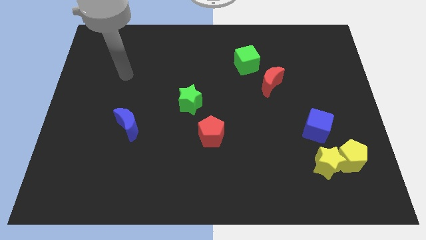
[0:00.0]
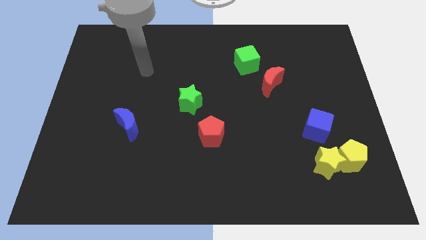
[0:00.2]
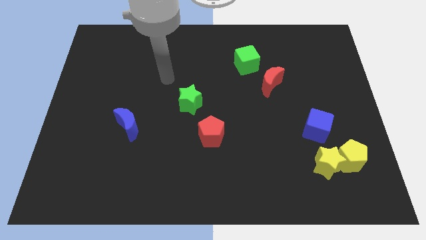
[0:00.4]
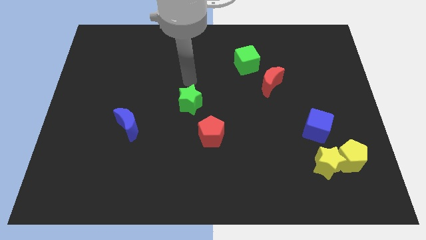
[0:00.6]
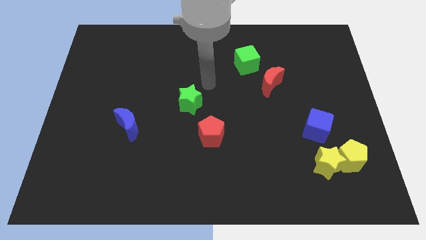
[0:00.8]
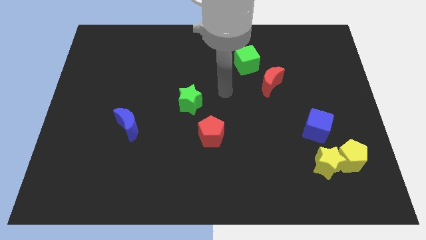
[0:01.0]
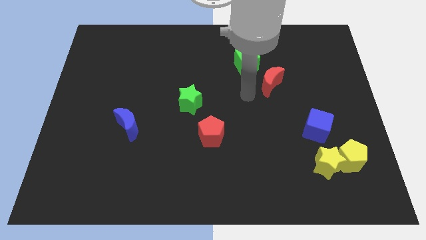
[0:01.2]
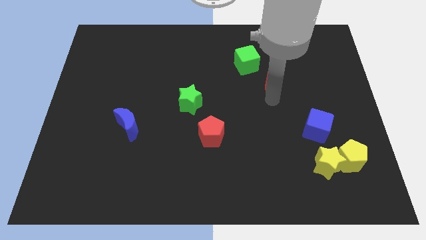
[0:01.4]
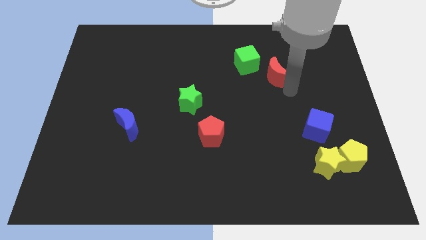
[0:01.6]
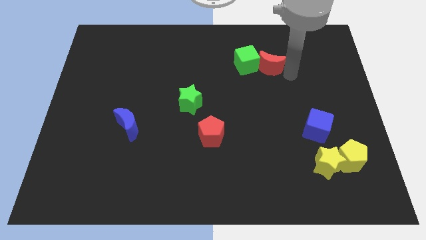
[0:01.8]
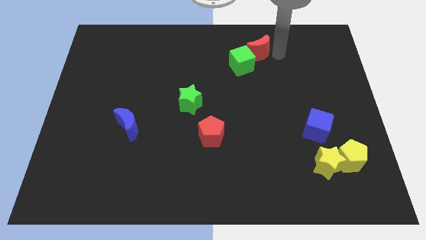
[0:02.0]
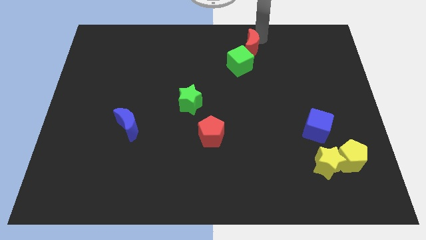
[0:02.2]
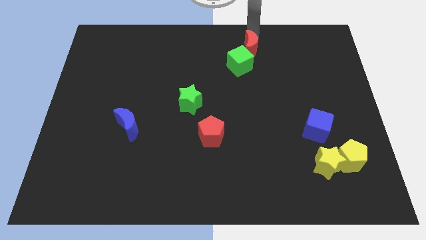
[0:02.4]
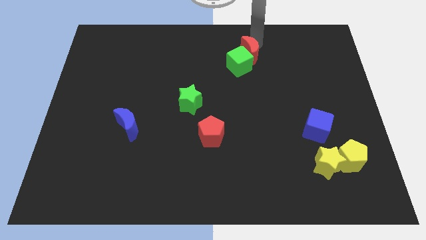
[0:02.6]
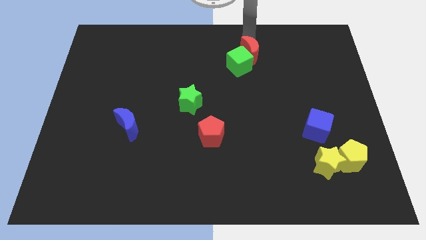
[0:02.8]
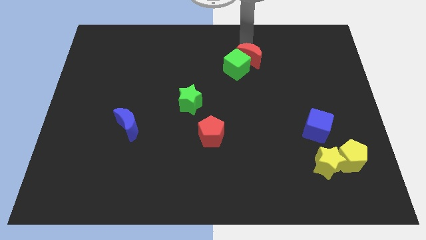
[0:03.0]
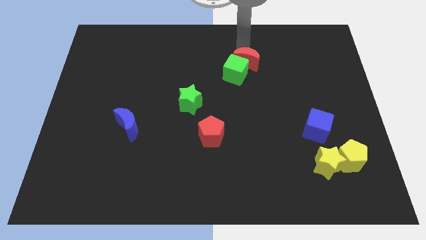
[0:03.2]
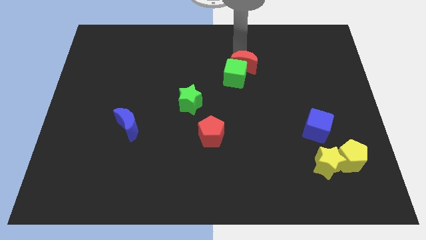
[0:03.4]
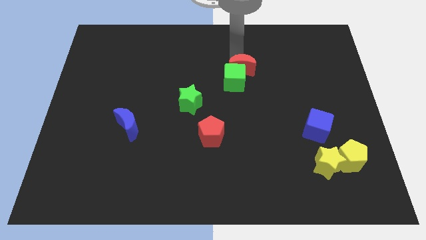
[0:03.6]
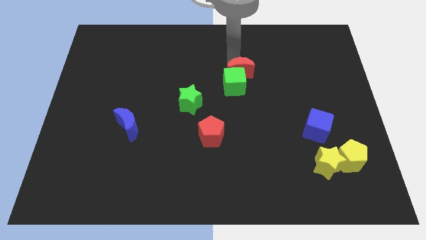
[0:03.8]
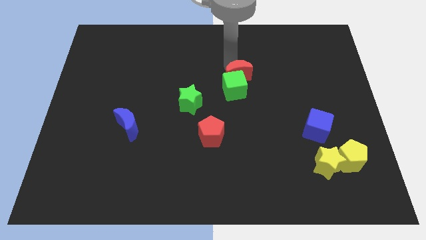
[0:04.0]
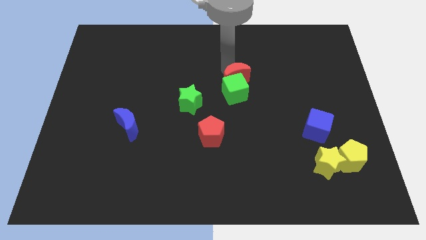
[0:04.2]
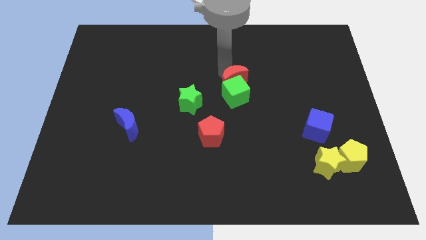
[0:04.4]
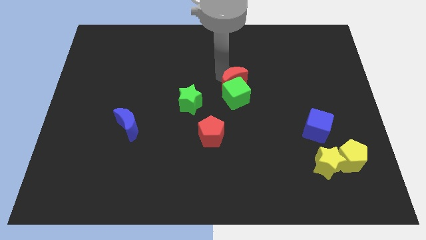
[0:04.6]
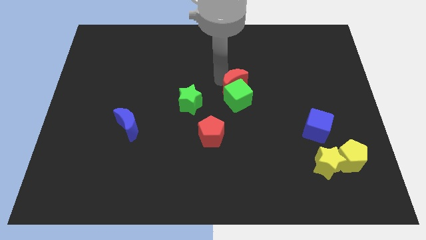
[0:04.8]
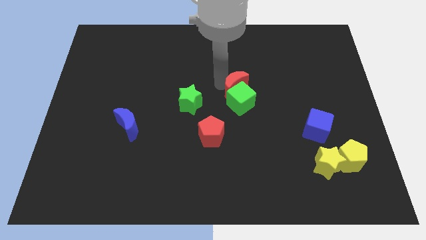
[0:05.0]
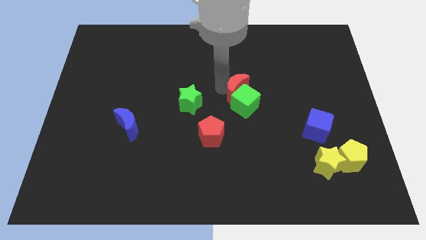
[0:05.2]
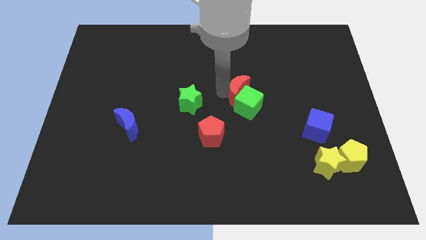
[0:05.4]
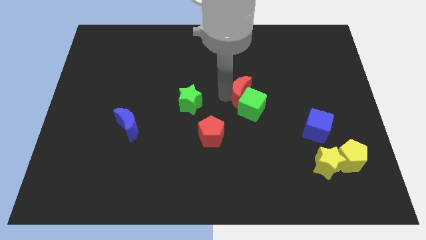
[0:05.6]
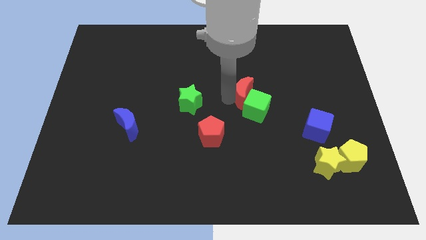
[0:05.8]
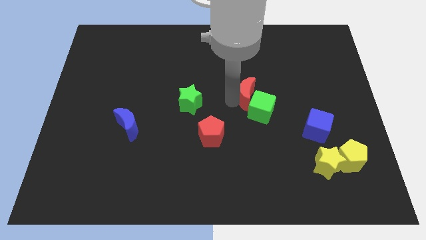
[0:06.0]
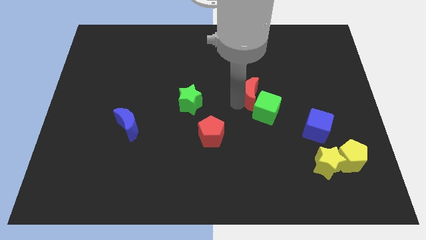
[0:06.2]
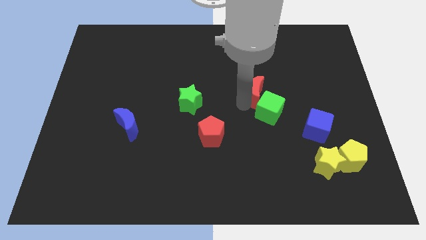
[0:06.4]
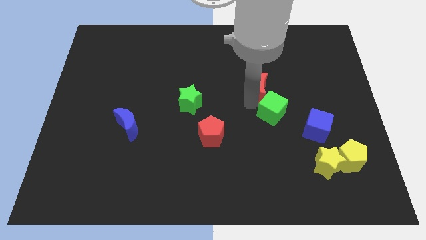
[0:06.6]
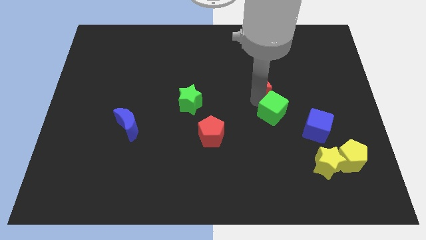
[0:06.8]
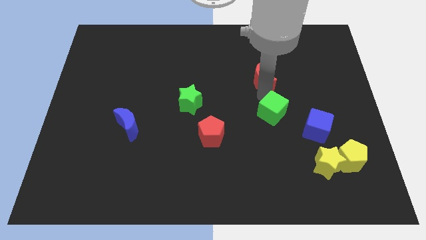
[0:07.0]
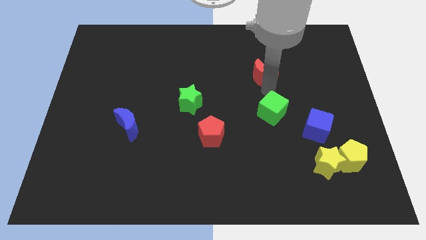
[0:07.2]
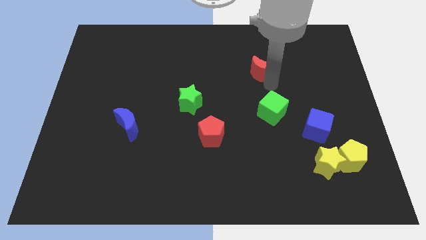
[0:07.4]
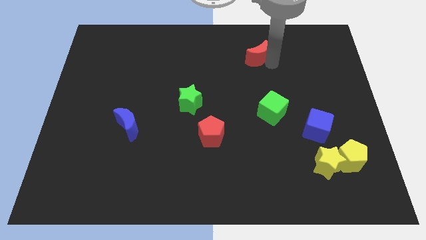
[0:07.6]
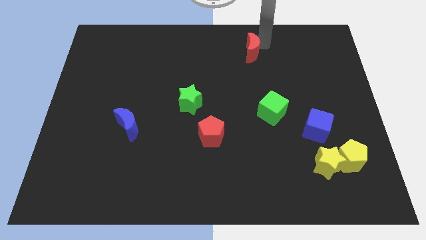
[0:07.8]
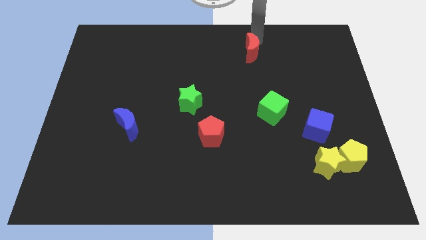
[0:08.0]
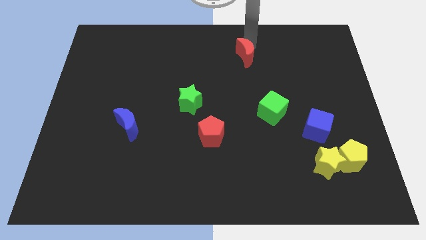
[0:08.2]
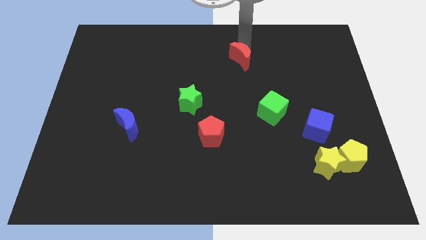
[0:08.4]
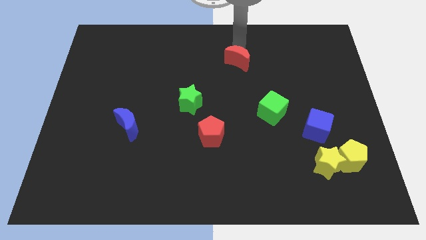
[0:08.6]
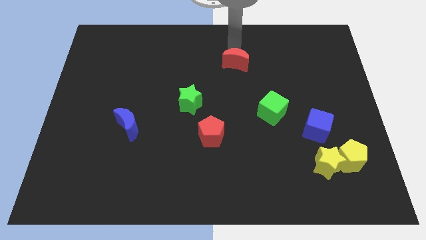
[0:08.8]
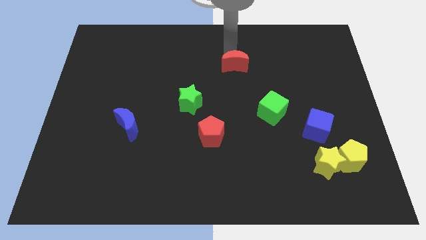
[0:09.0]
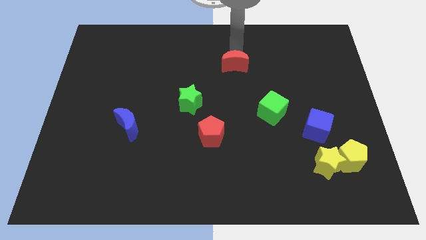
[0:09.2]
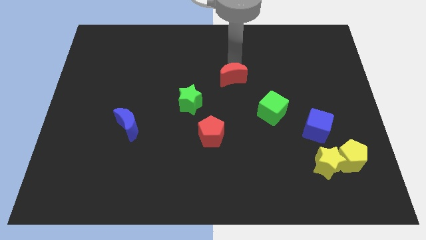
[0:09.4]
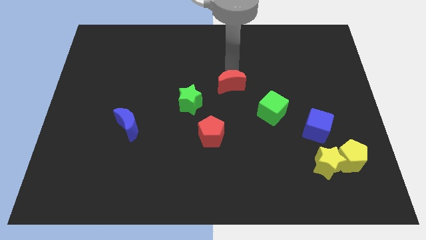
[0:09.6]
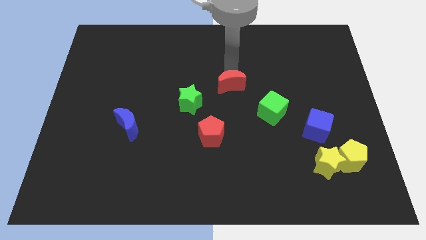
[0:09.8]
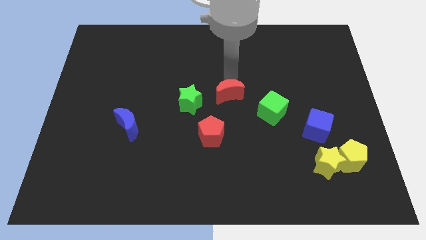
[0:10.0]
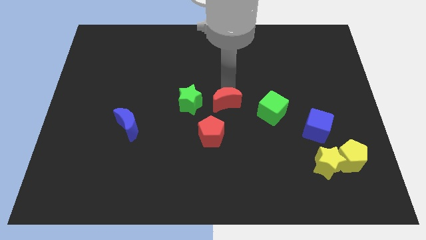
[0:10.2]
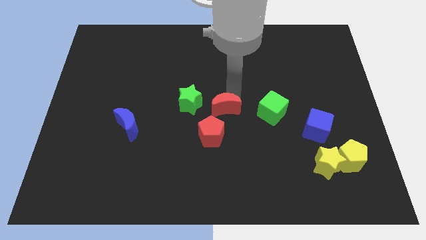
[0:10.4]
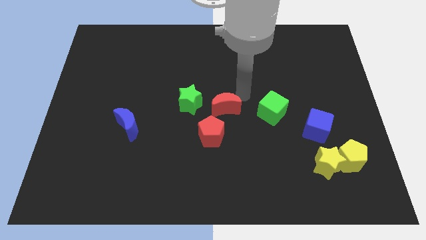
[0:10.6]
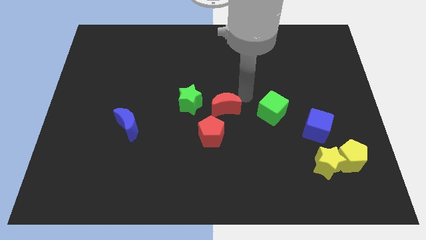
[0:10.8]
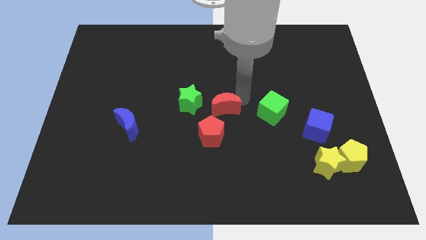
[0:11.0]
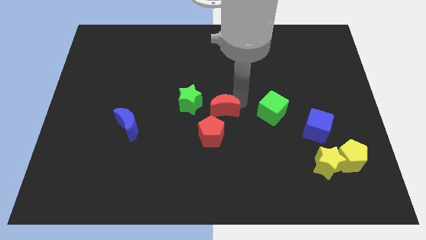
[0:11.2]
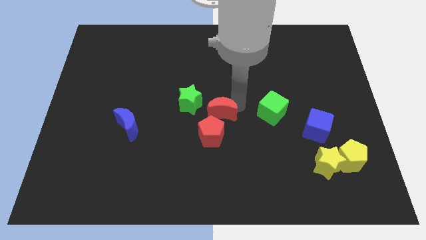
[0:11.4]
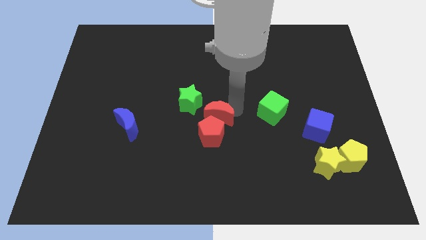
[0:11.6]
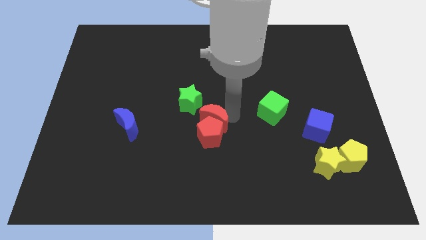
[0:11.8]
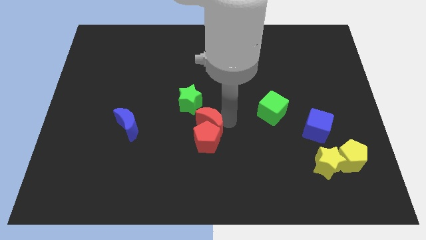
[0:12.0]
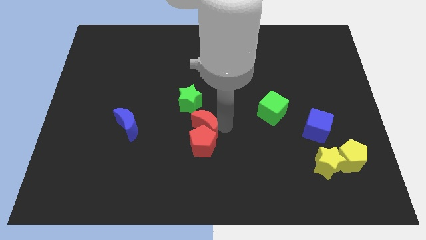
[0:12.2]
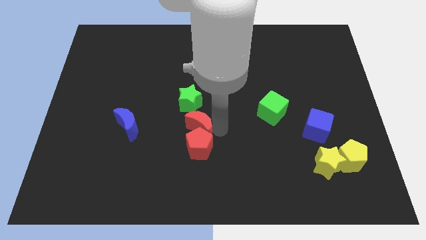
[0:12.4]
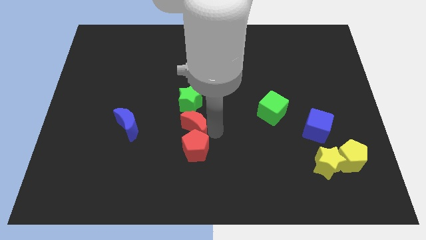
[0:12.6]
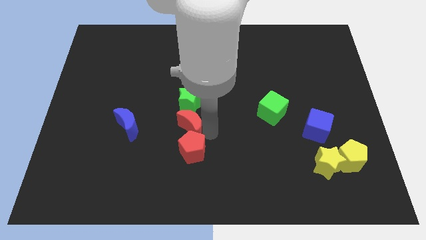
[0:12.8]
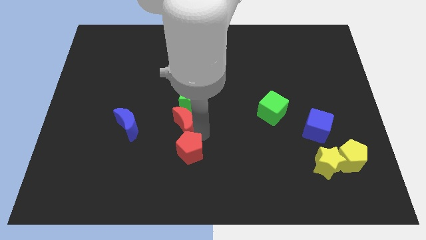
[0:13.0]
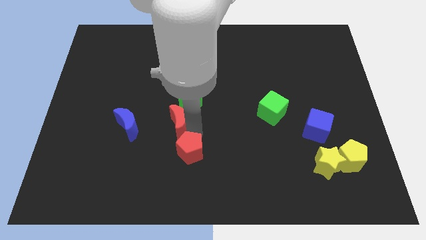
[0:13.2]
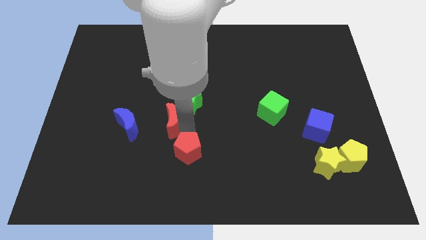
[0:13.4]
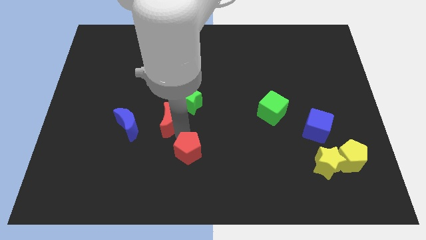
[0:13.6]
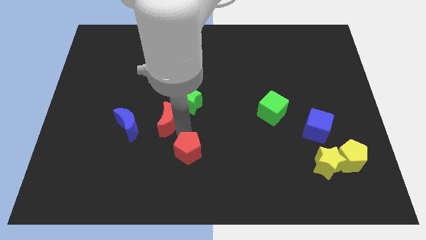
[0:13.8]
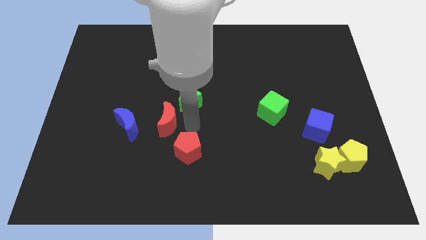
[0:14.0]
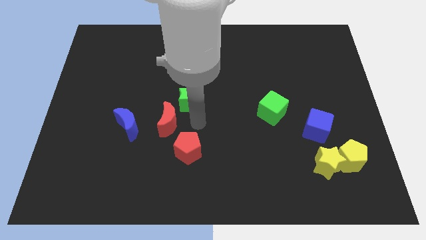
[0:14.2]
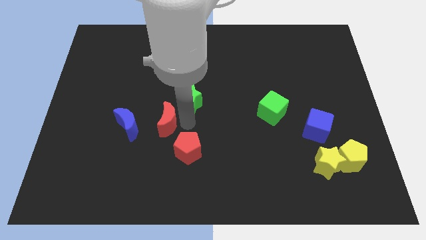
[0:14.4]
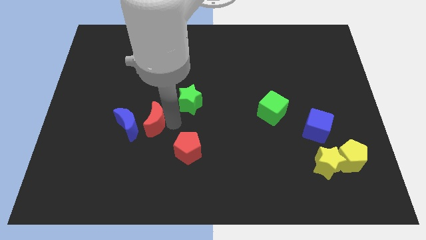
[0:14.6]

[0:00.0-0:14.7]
push the red moon towards the blue moon

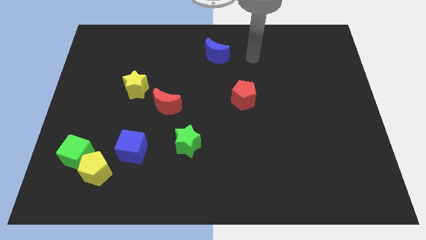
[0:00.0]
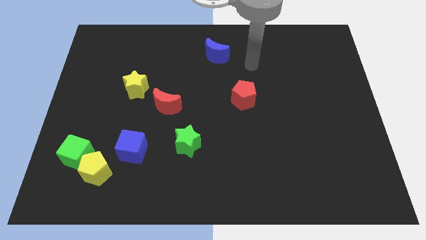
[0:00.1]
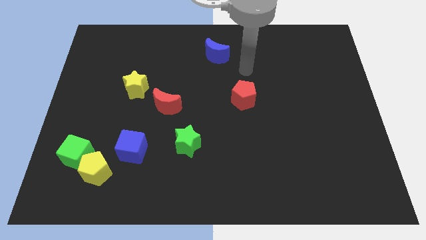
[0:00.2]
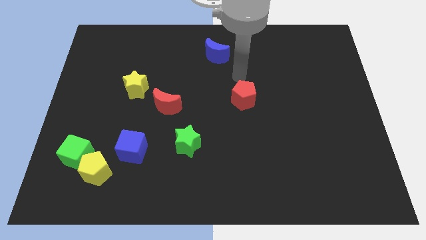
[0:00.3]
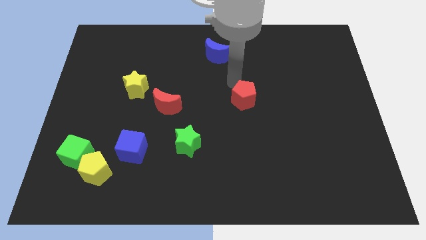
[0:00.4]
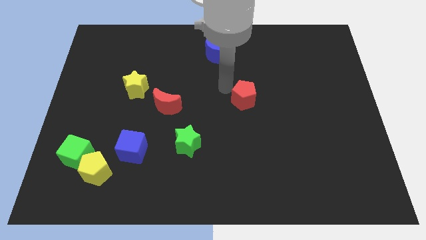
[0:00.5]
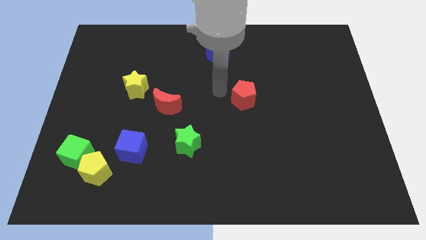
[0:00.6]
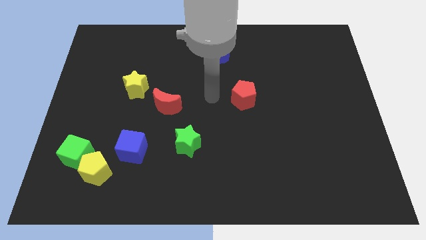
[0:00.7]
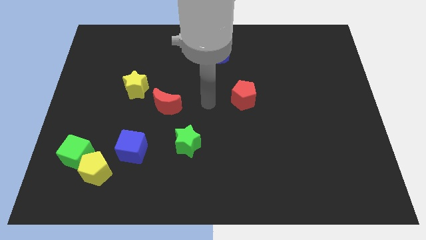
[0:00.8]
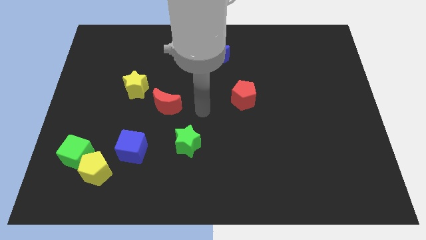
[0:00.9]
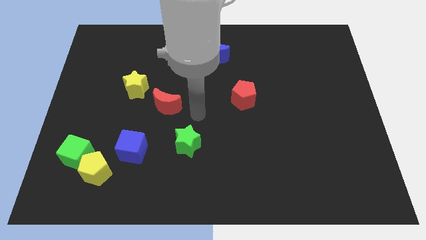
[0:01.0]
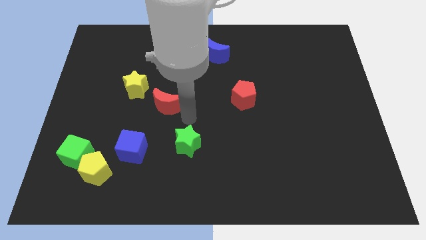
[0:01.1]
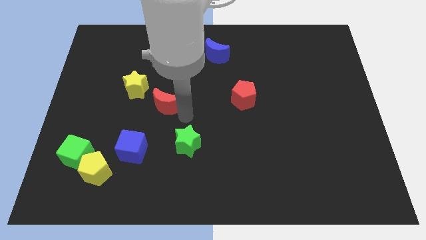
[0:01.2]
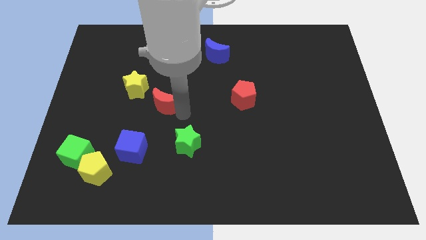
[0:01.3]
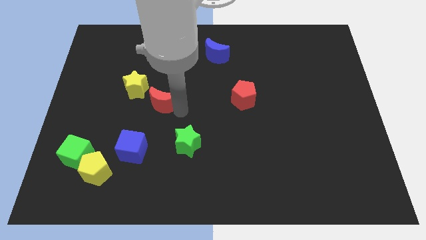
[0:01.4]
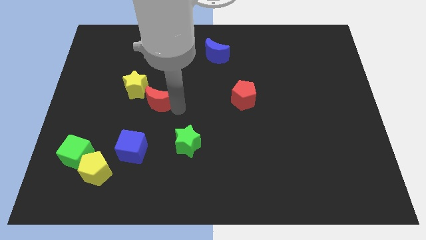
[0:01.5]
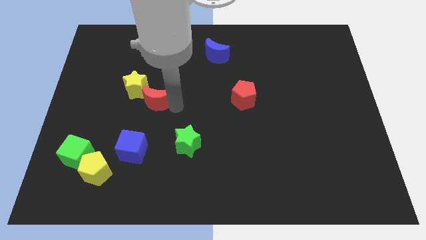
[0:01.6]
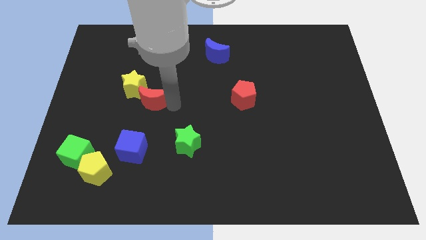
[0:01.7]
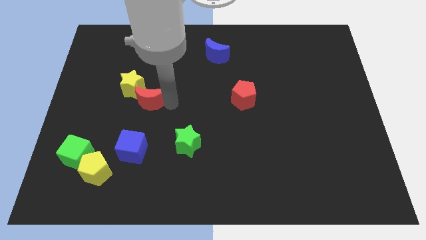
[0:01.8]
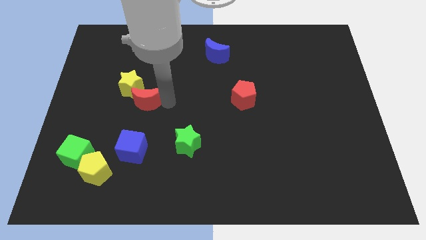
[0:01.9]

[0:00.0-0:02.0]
move the red moon to the yellow star
